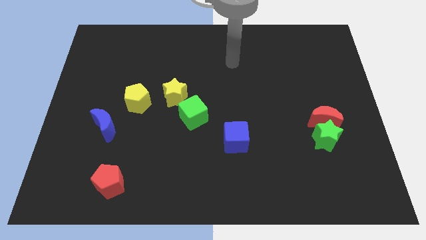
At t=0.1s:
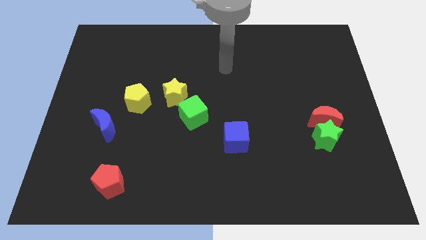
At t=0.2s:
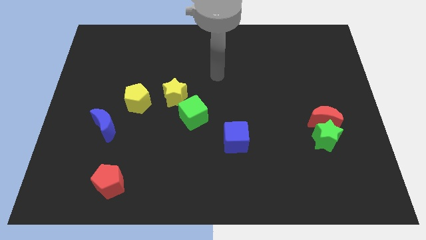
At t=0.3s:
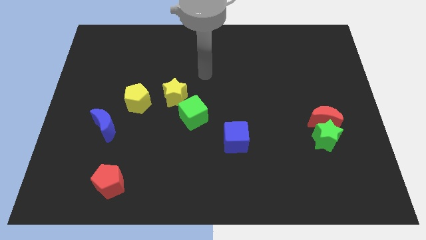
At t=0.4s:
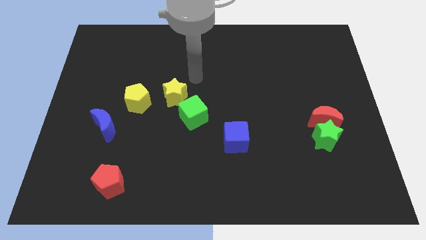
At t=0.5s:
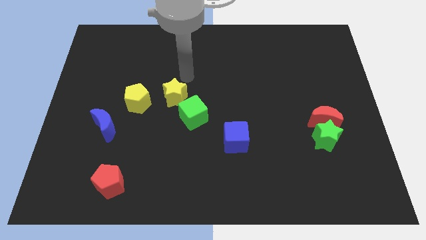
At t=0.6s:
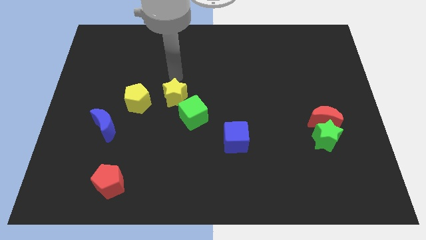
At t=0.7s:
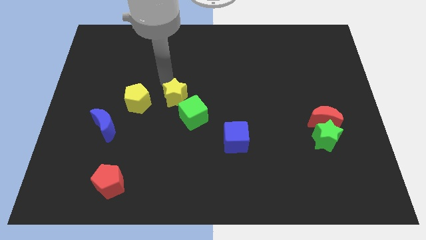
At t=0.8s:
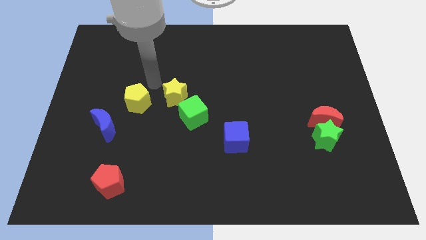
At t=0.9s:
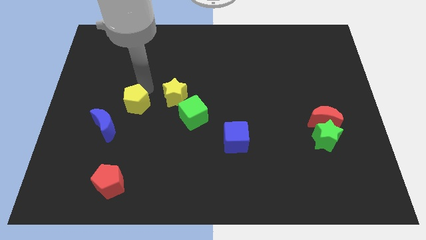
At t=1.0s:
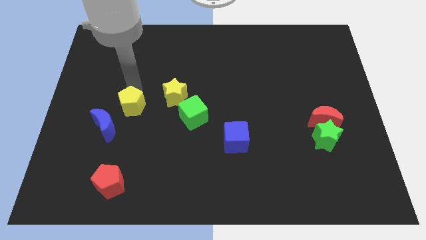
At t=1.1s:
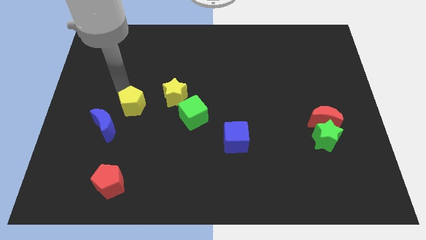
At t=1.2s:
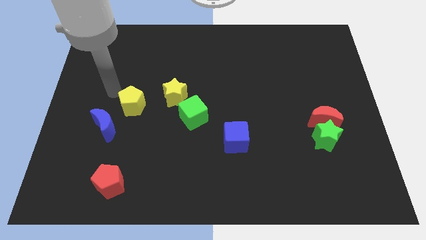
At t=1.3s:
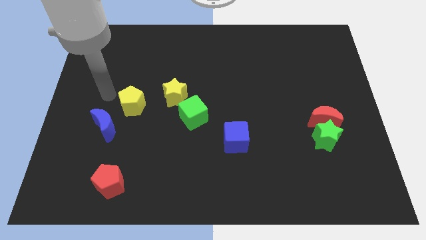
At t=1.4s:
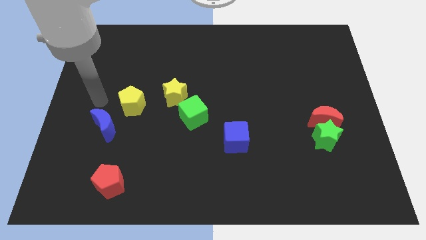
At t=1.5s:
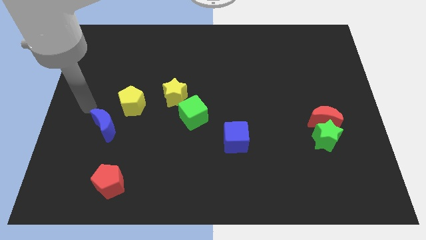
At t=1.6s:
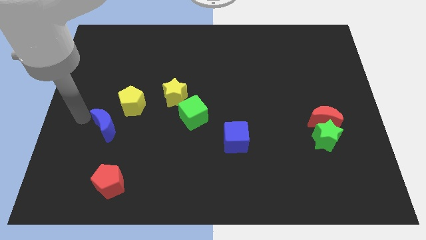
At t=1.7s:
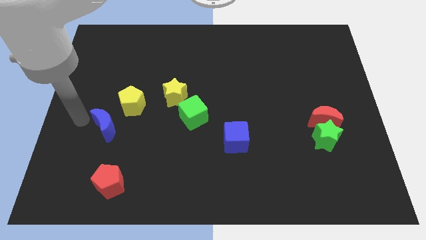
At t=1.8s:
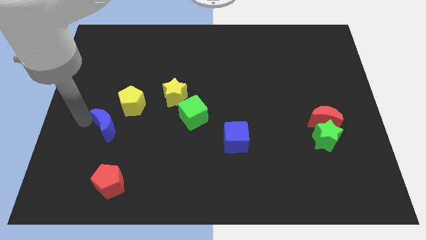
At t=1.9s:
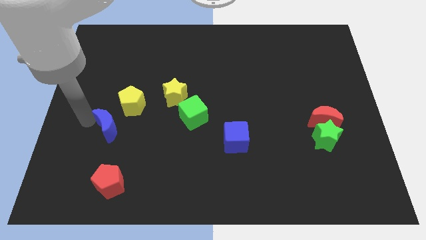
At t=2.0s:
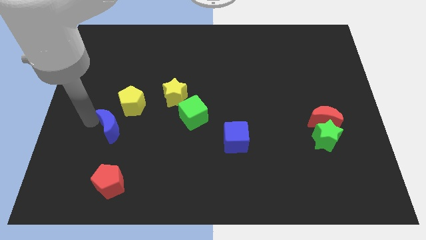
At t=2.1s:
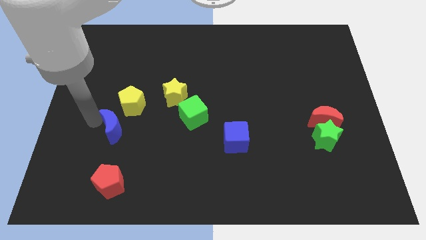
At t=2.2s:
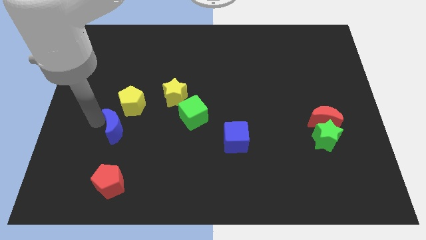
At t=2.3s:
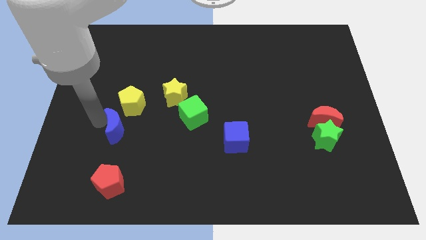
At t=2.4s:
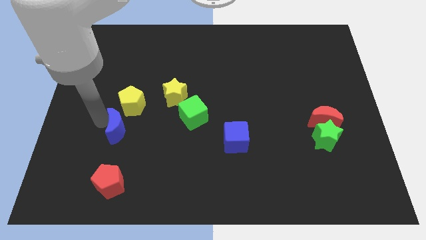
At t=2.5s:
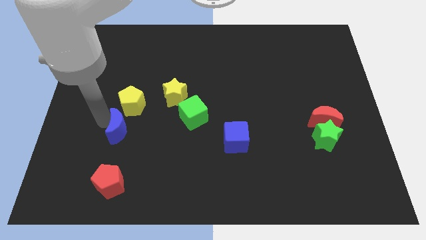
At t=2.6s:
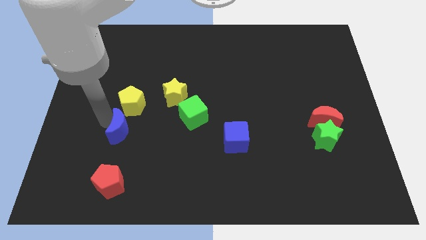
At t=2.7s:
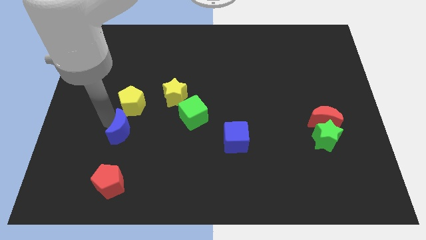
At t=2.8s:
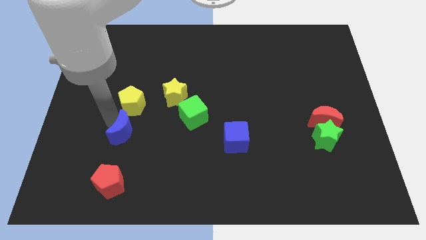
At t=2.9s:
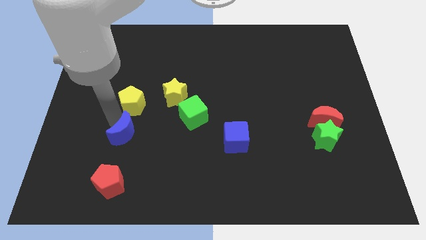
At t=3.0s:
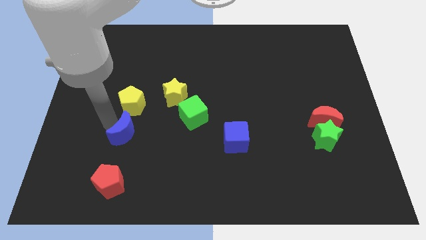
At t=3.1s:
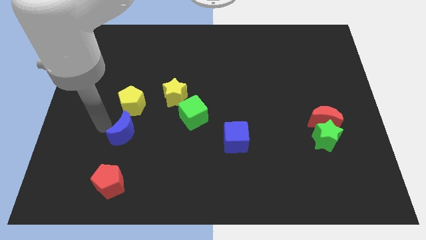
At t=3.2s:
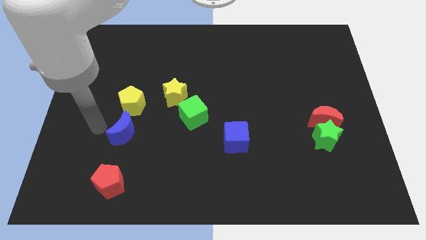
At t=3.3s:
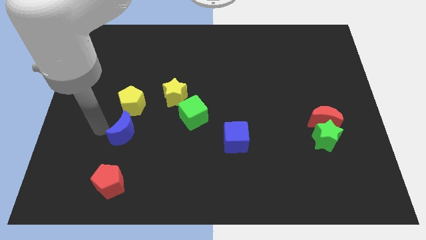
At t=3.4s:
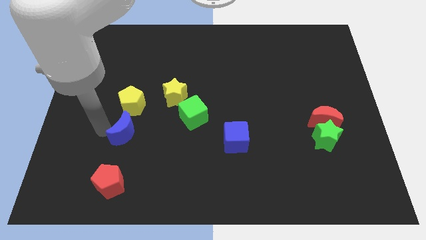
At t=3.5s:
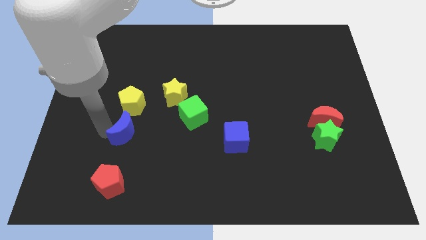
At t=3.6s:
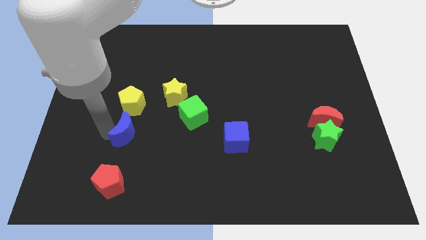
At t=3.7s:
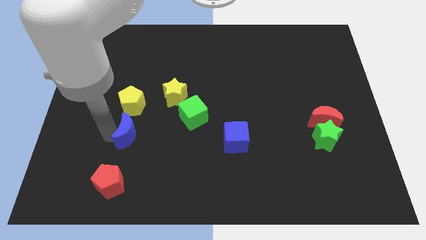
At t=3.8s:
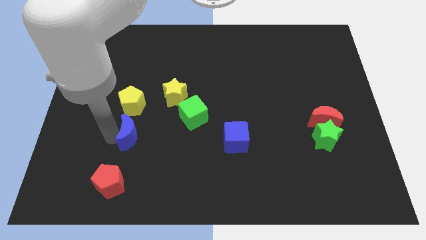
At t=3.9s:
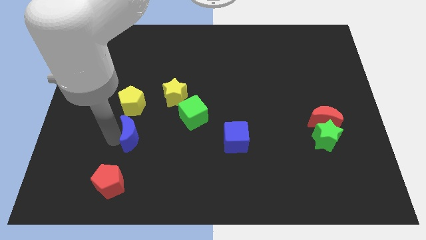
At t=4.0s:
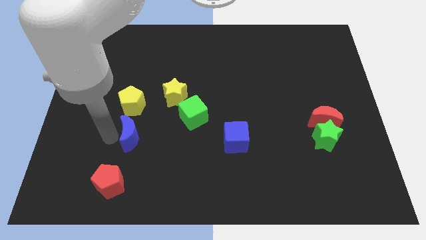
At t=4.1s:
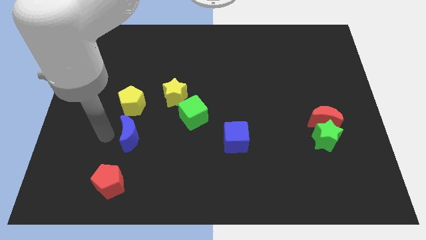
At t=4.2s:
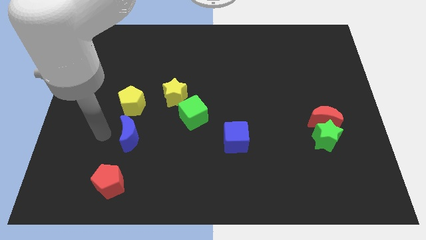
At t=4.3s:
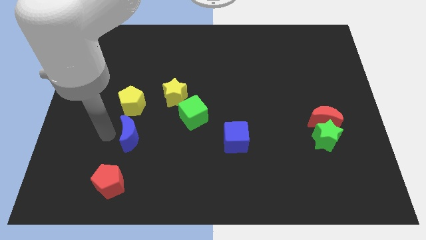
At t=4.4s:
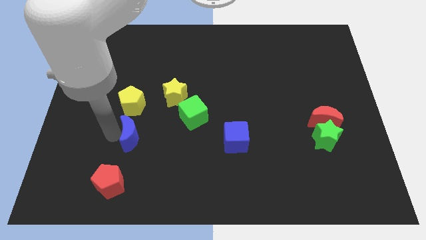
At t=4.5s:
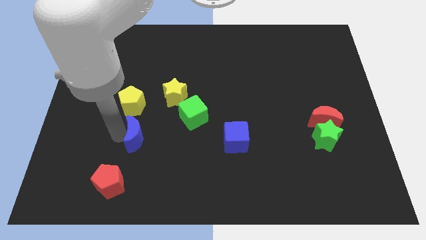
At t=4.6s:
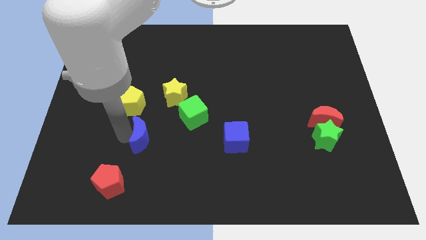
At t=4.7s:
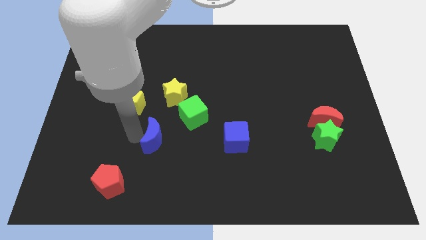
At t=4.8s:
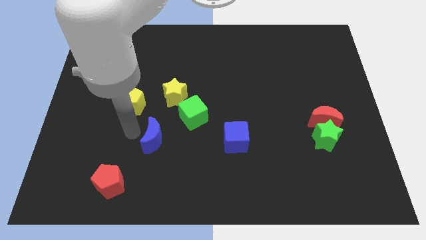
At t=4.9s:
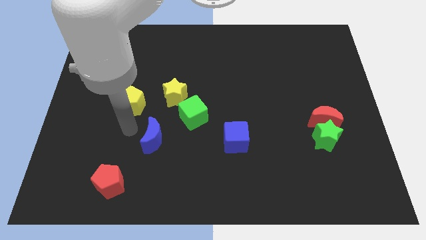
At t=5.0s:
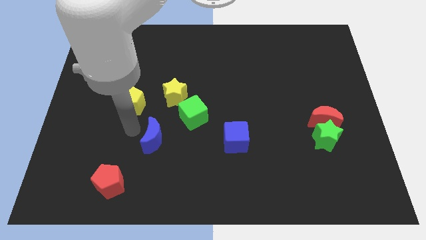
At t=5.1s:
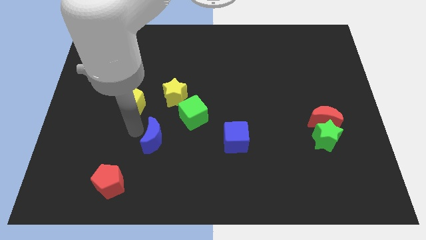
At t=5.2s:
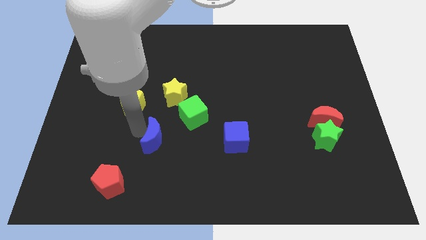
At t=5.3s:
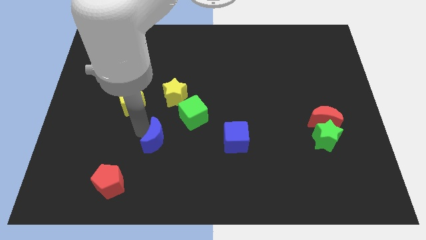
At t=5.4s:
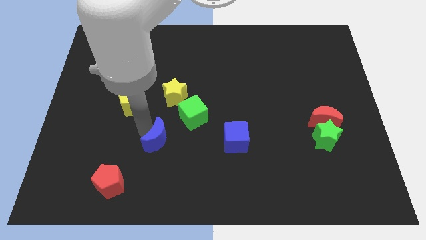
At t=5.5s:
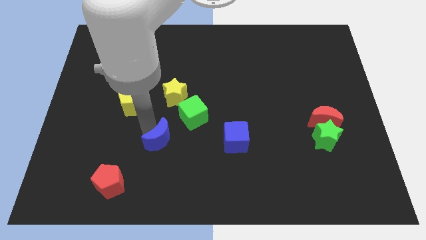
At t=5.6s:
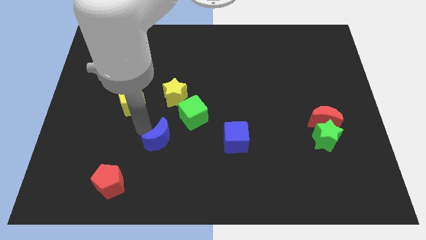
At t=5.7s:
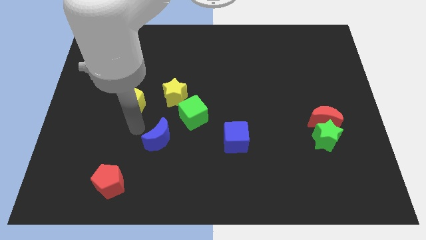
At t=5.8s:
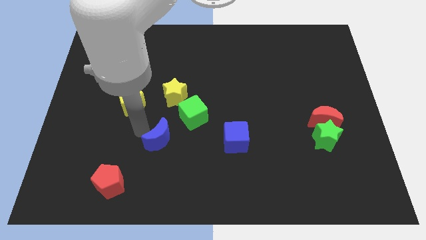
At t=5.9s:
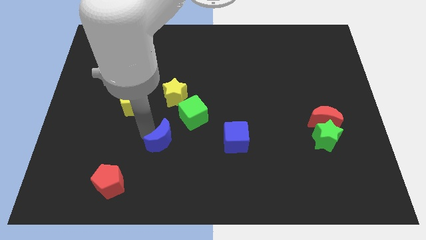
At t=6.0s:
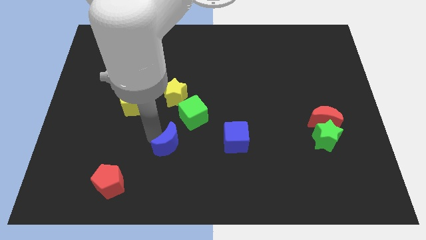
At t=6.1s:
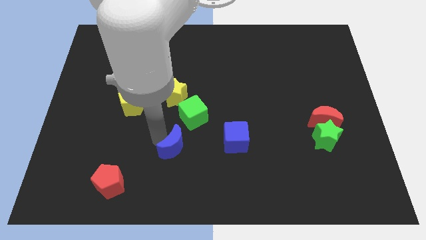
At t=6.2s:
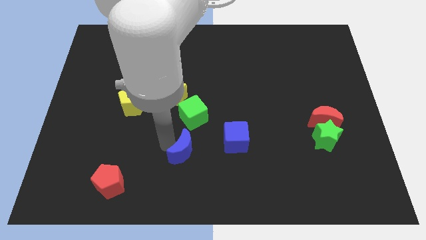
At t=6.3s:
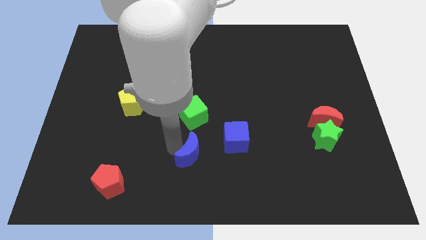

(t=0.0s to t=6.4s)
slide the blue moon diagonally down and to the left of the blue cube
